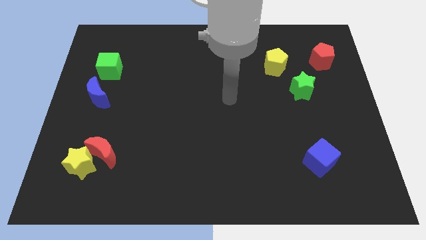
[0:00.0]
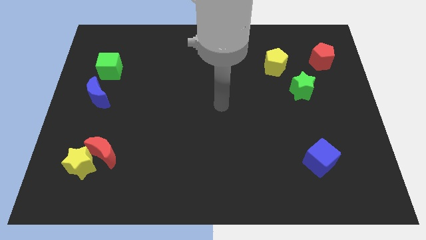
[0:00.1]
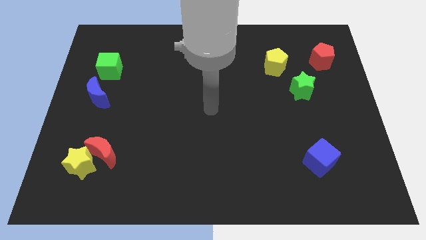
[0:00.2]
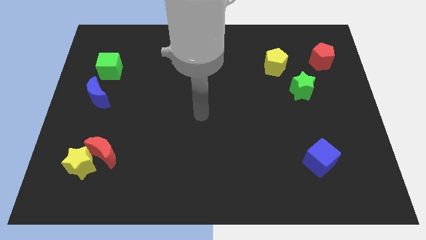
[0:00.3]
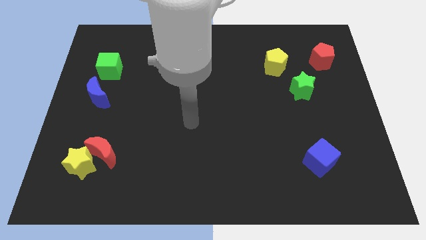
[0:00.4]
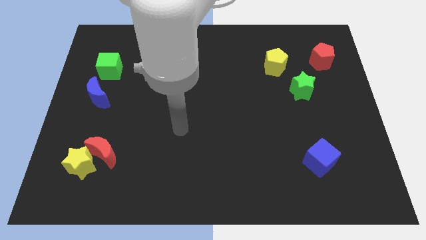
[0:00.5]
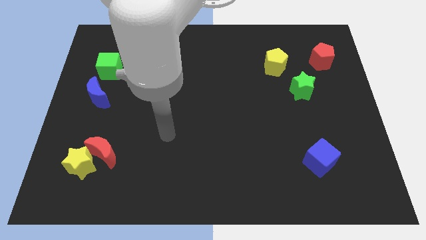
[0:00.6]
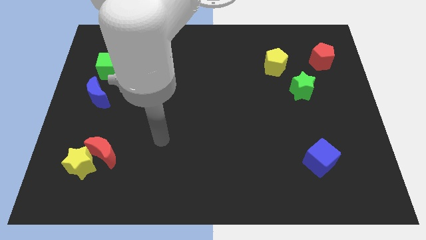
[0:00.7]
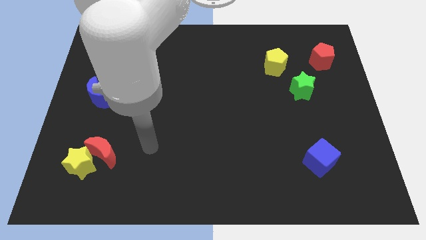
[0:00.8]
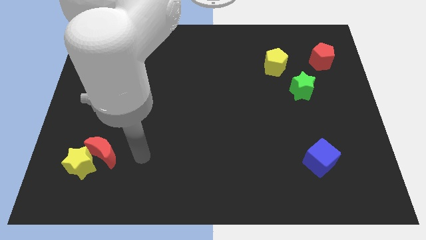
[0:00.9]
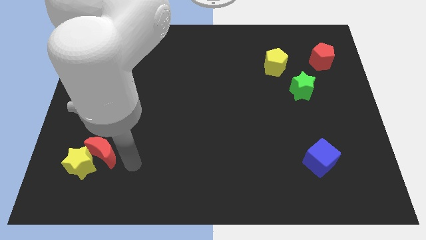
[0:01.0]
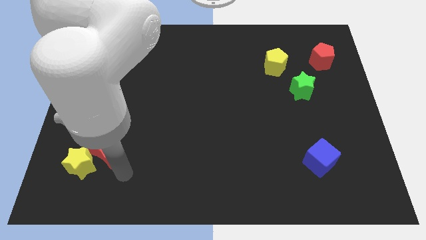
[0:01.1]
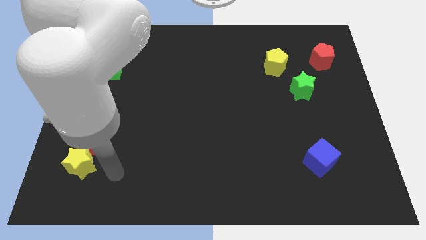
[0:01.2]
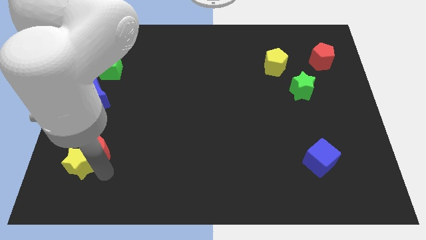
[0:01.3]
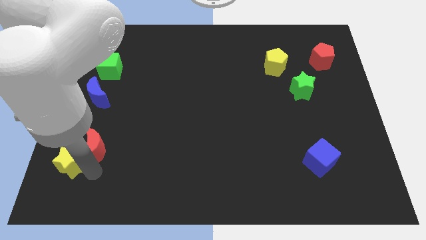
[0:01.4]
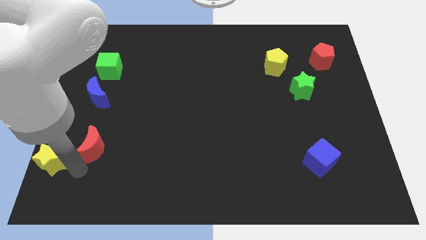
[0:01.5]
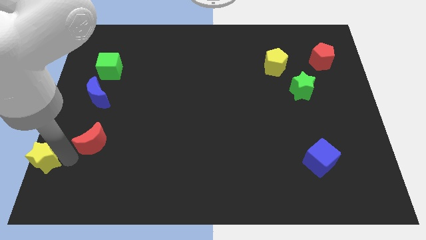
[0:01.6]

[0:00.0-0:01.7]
move the red moon away from the yellow star

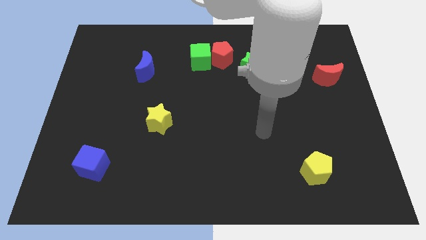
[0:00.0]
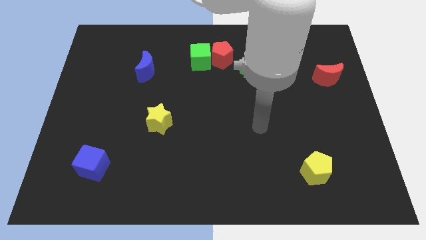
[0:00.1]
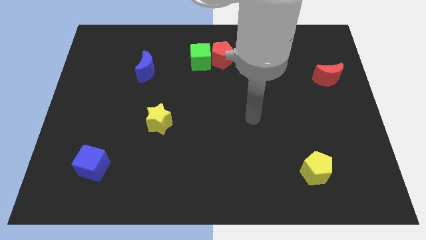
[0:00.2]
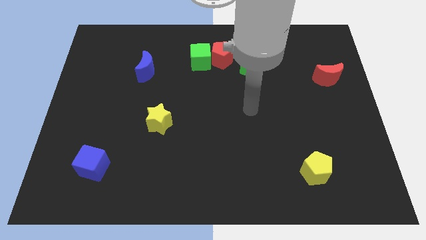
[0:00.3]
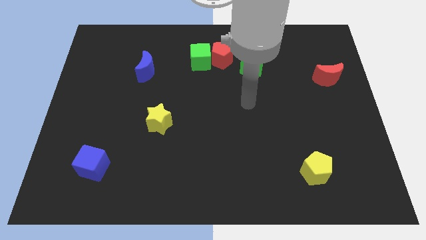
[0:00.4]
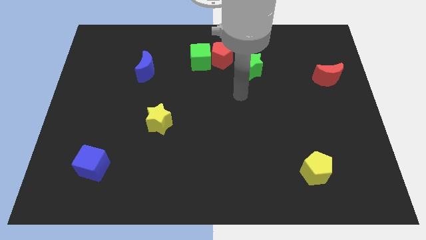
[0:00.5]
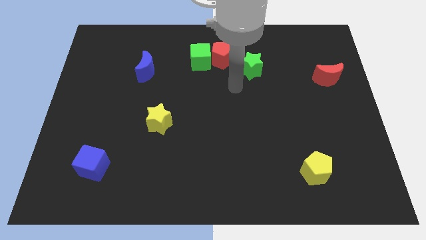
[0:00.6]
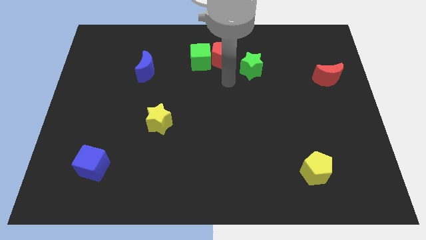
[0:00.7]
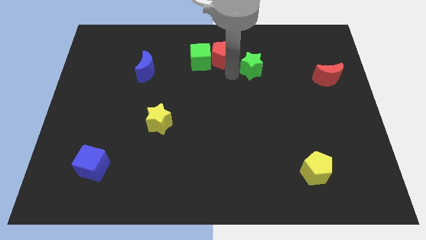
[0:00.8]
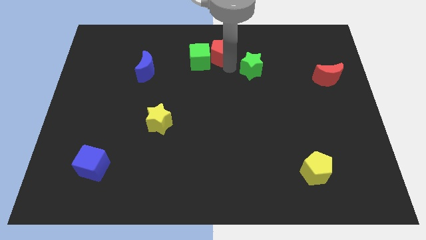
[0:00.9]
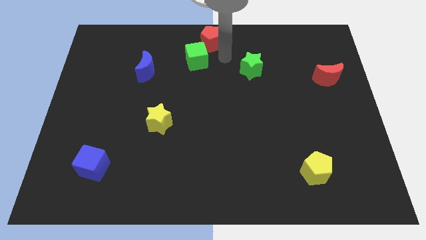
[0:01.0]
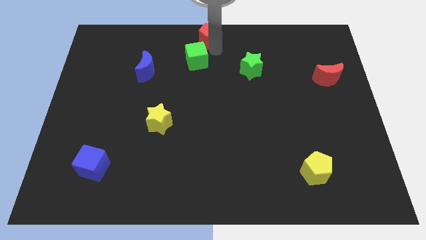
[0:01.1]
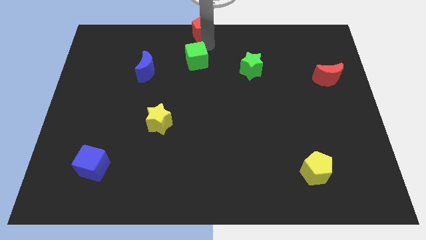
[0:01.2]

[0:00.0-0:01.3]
pull the green cube apart from the red pentagon

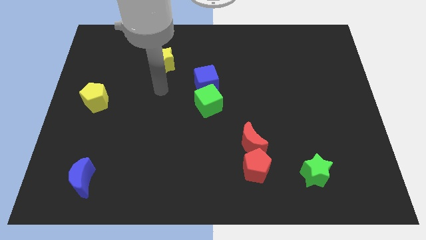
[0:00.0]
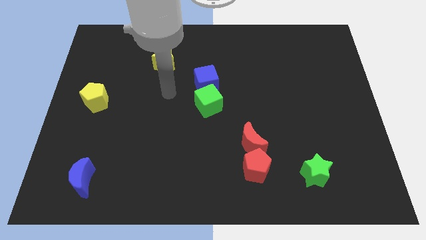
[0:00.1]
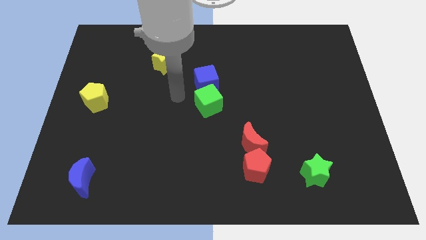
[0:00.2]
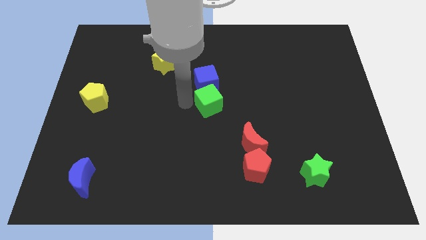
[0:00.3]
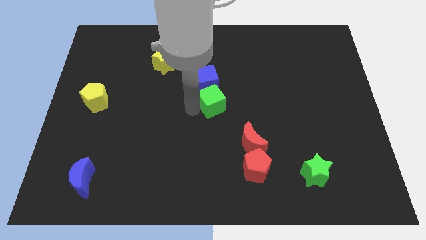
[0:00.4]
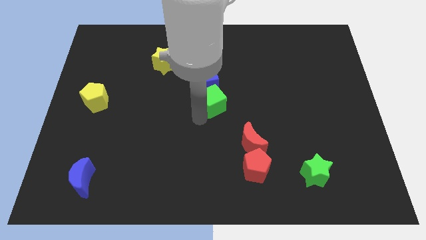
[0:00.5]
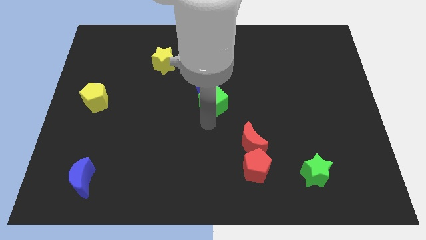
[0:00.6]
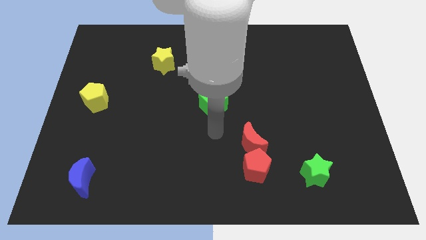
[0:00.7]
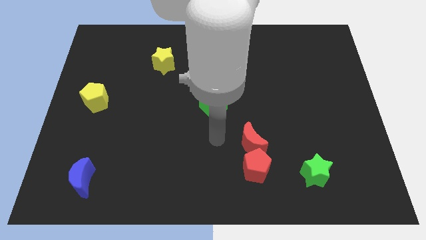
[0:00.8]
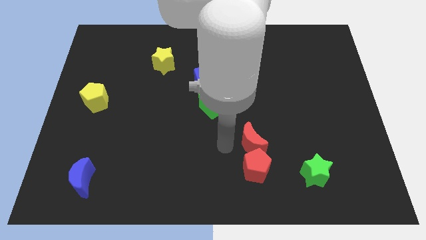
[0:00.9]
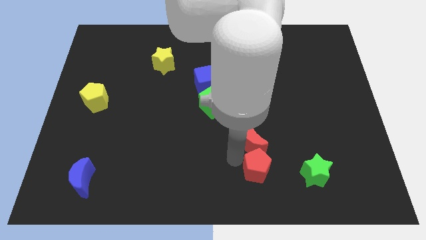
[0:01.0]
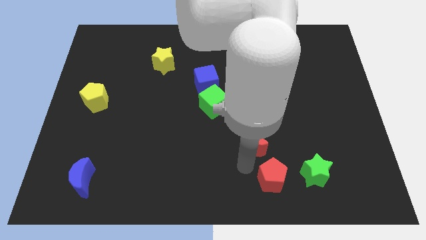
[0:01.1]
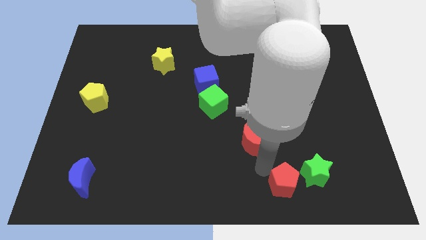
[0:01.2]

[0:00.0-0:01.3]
pull the red moon apart from the red pentagon

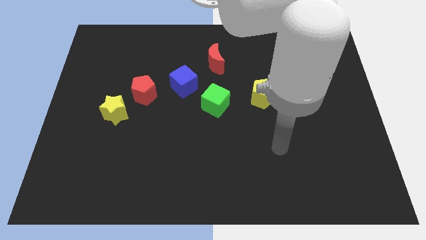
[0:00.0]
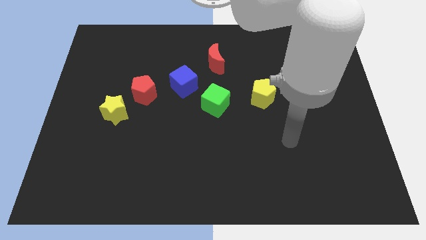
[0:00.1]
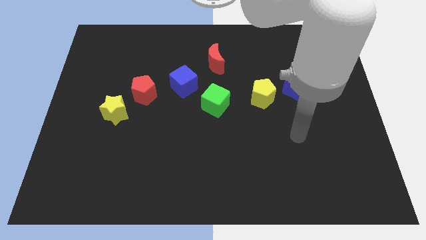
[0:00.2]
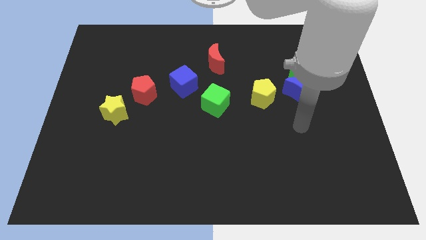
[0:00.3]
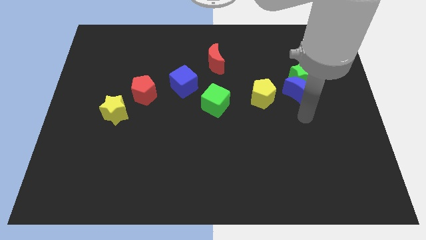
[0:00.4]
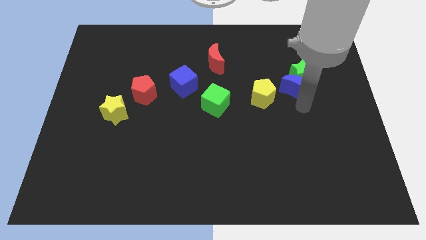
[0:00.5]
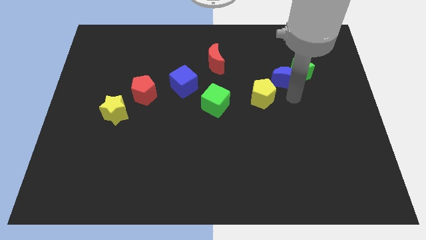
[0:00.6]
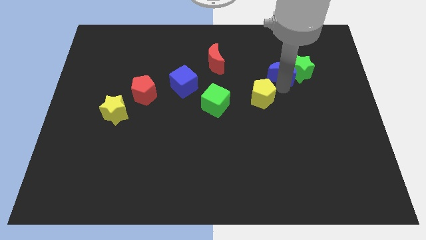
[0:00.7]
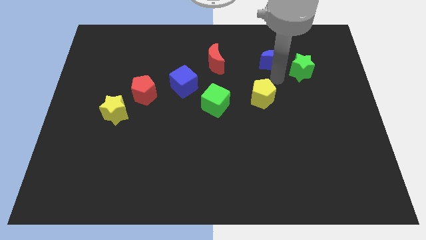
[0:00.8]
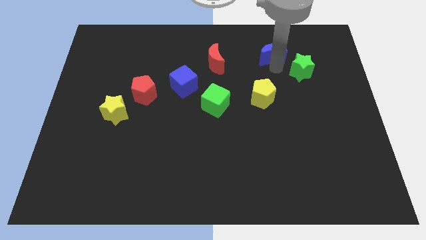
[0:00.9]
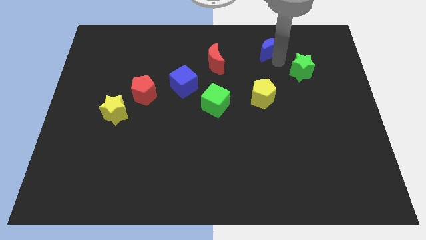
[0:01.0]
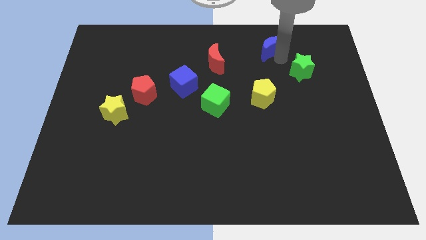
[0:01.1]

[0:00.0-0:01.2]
separate the green star from the blue moon

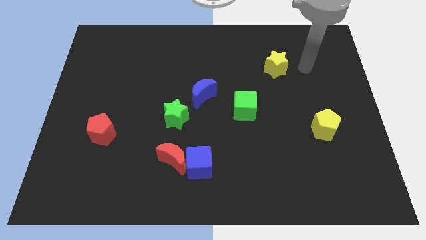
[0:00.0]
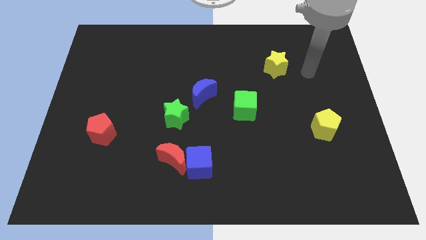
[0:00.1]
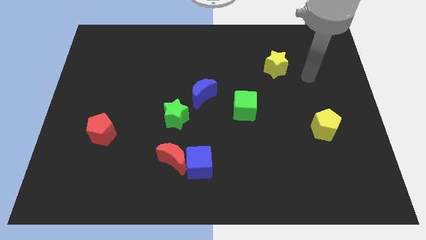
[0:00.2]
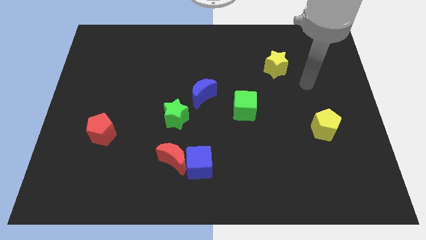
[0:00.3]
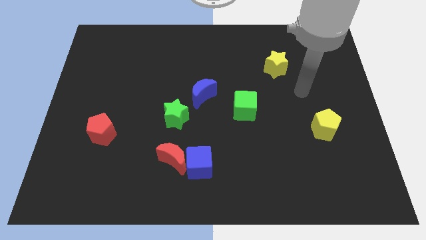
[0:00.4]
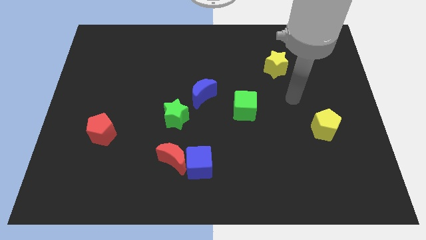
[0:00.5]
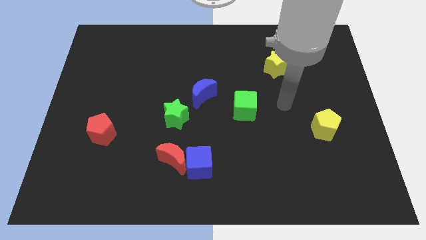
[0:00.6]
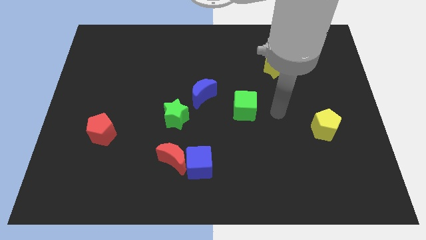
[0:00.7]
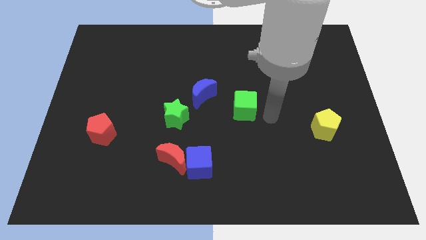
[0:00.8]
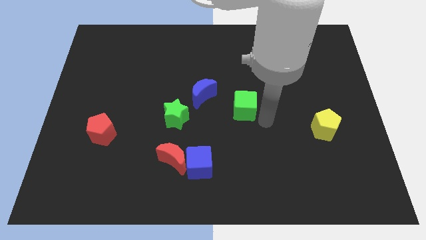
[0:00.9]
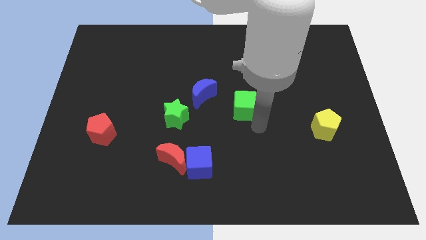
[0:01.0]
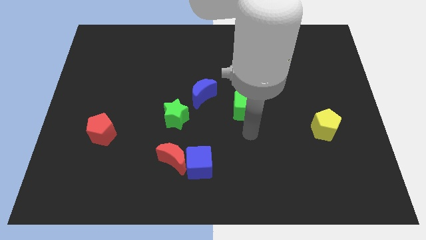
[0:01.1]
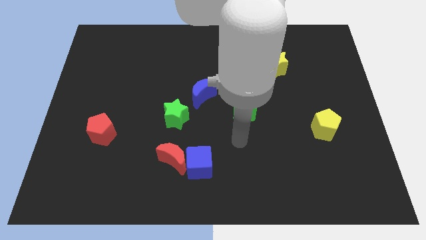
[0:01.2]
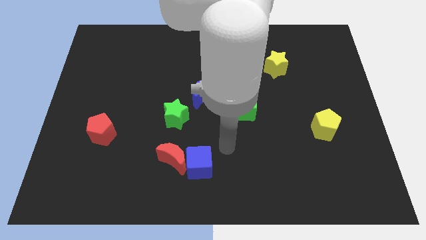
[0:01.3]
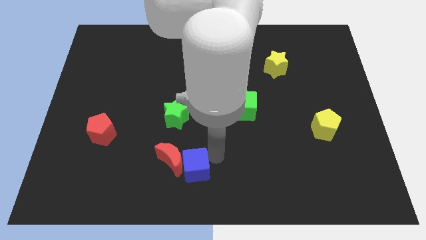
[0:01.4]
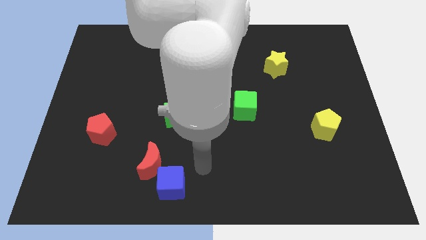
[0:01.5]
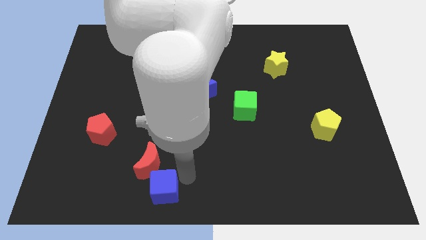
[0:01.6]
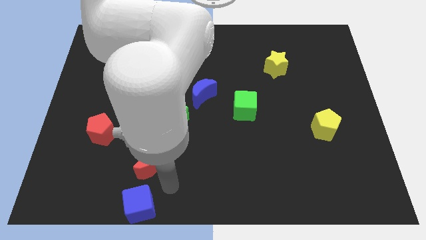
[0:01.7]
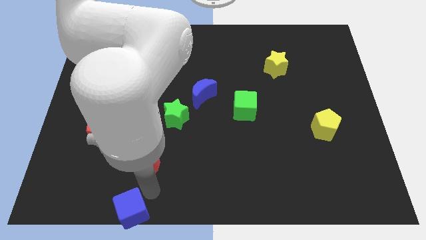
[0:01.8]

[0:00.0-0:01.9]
separate the red moon from the blue cube

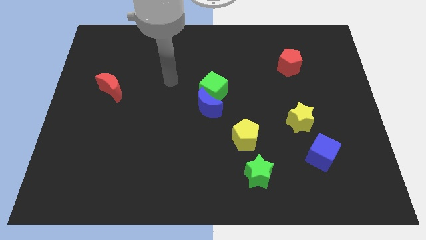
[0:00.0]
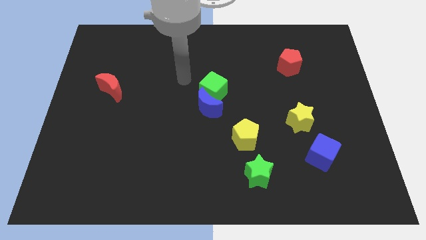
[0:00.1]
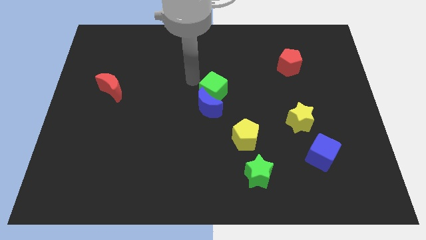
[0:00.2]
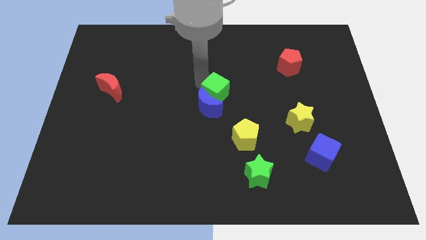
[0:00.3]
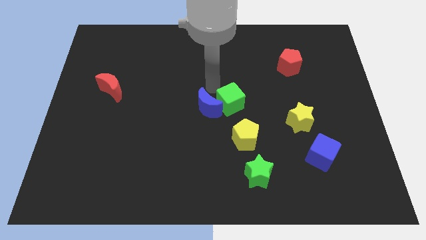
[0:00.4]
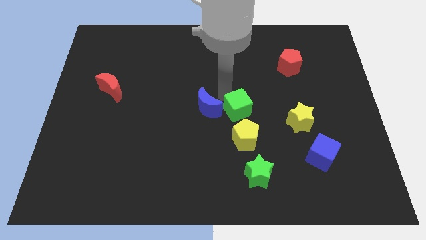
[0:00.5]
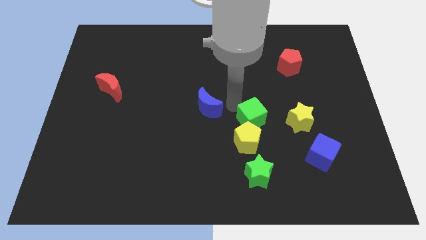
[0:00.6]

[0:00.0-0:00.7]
separate the blue moon from the green cube

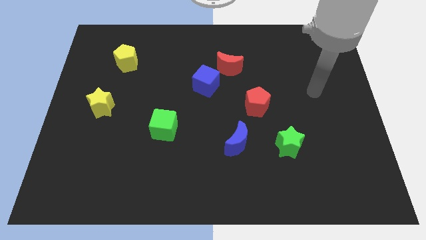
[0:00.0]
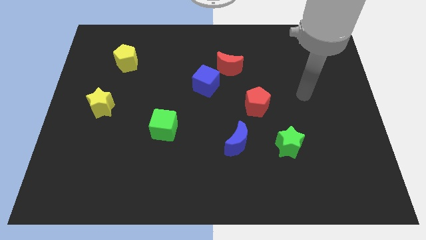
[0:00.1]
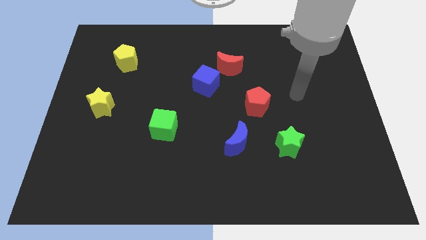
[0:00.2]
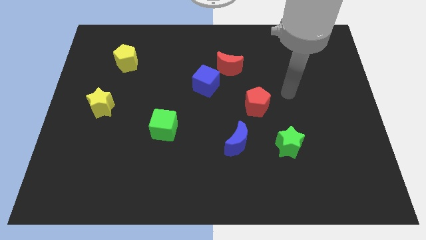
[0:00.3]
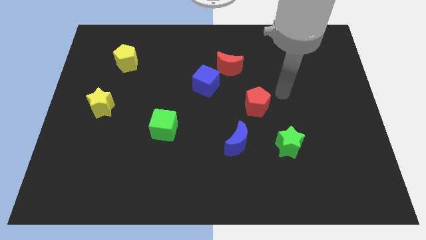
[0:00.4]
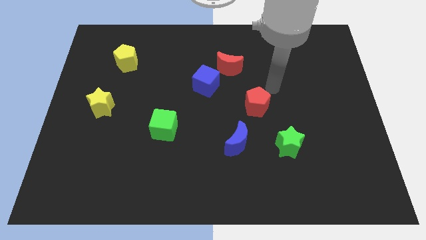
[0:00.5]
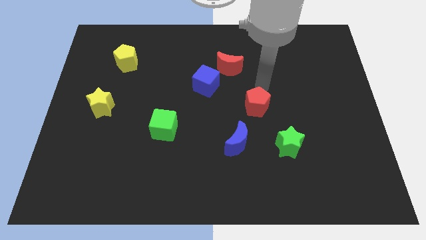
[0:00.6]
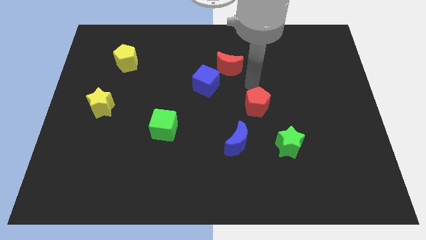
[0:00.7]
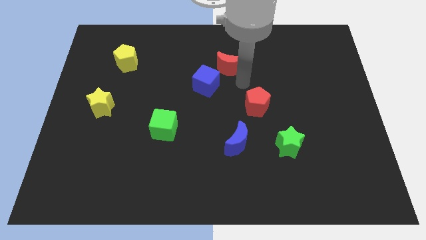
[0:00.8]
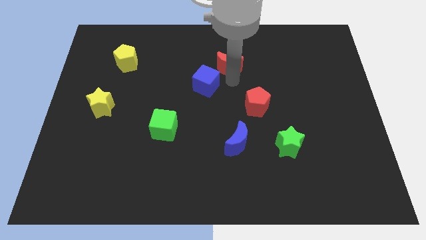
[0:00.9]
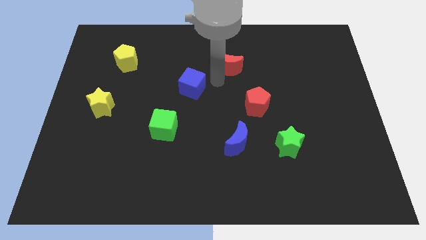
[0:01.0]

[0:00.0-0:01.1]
pull the red moon apart from the blue cube

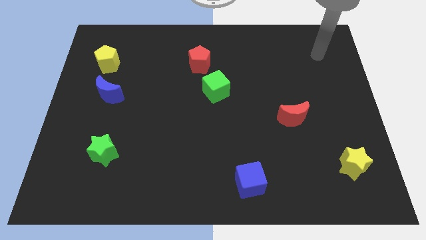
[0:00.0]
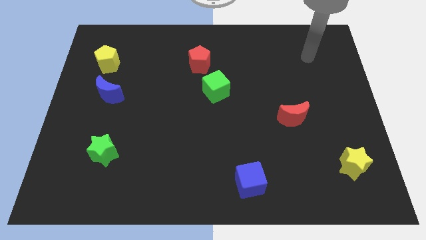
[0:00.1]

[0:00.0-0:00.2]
separate the red pentagon from the green cube
